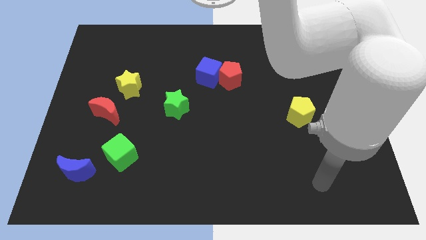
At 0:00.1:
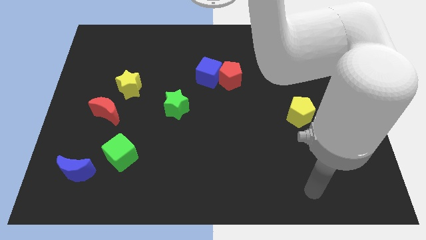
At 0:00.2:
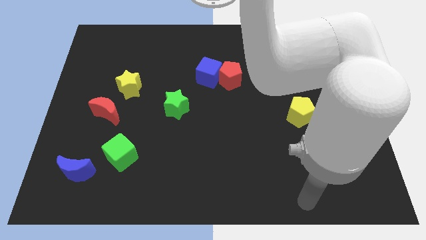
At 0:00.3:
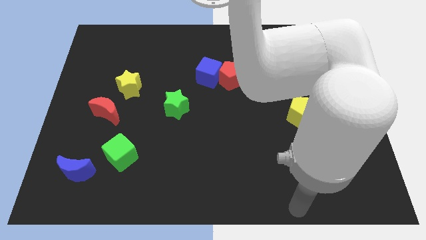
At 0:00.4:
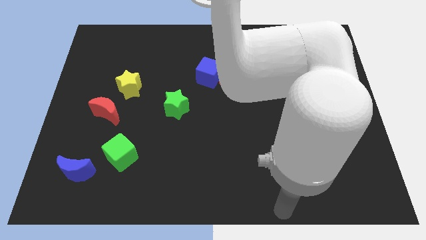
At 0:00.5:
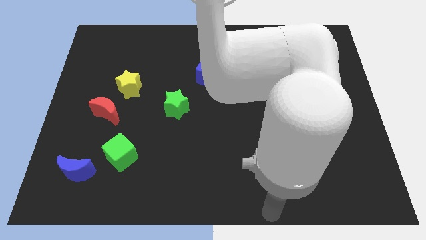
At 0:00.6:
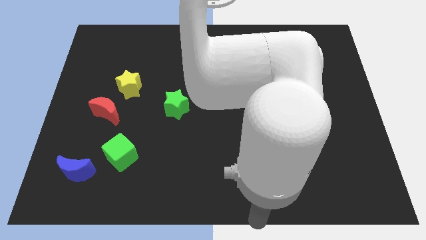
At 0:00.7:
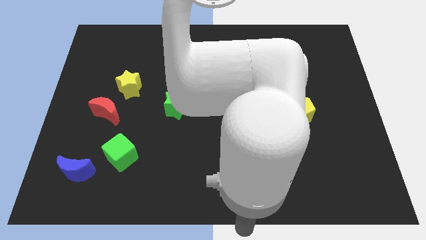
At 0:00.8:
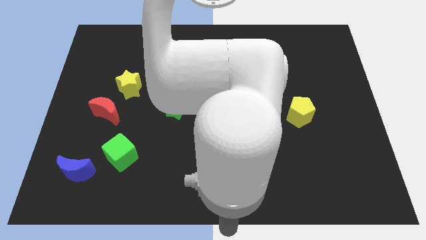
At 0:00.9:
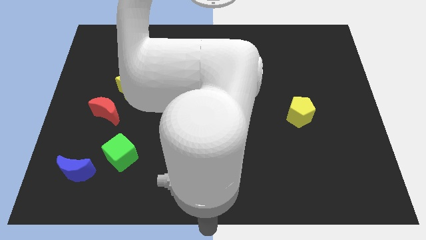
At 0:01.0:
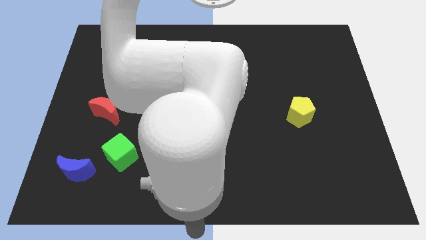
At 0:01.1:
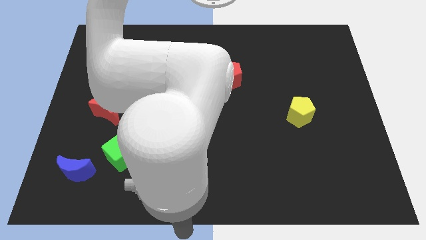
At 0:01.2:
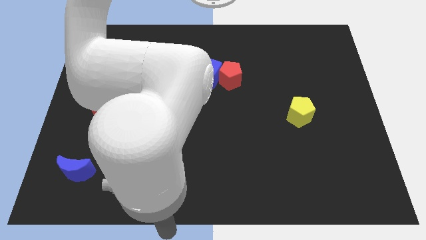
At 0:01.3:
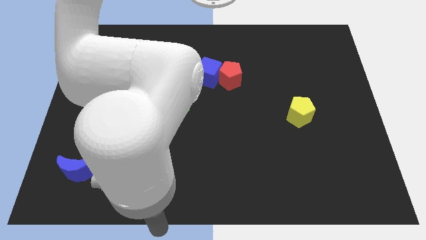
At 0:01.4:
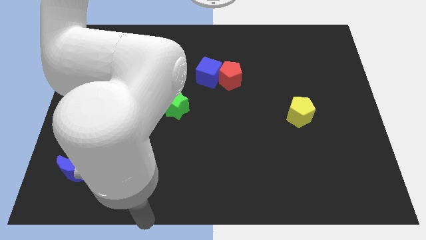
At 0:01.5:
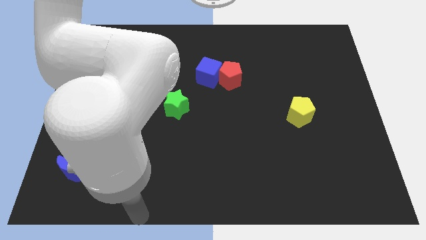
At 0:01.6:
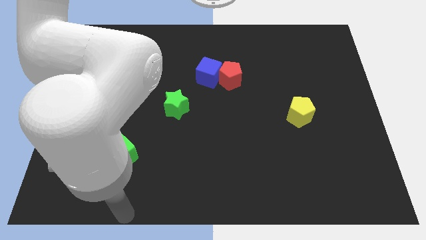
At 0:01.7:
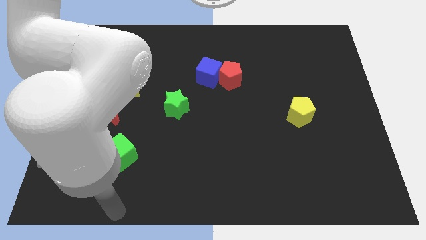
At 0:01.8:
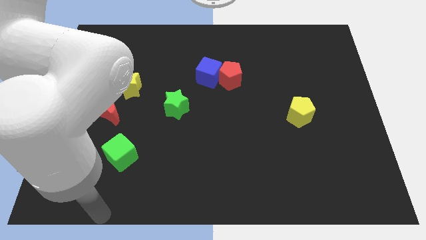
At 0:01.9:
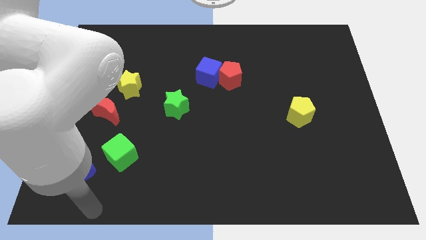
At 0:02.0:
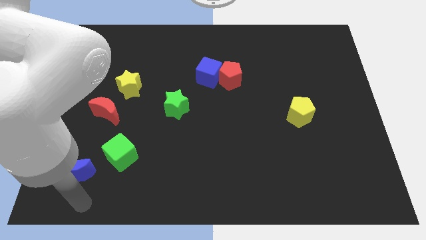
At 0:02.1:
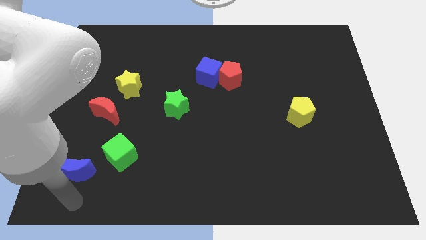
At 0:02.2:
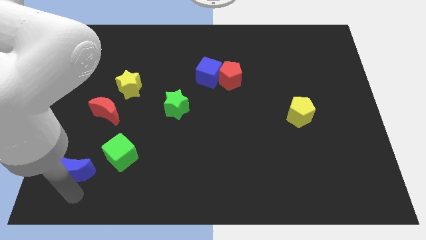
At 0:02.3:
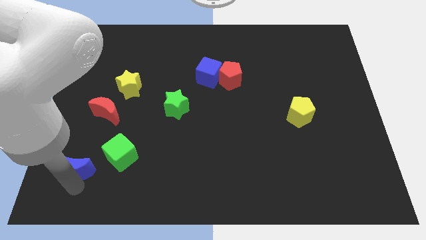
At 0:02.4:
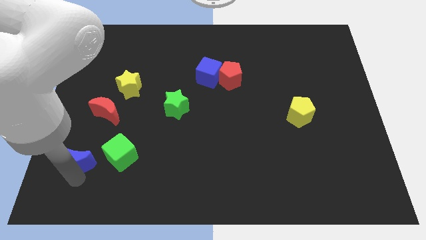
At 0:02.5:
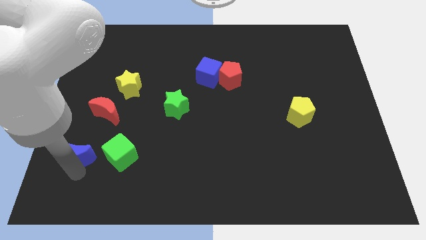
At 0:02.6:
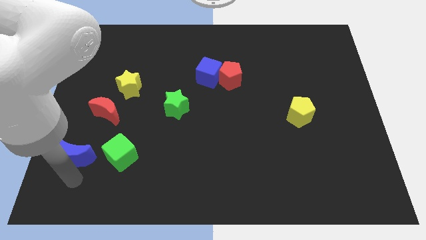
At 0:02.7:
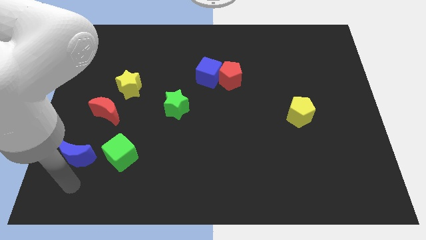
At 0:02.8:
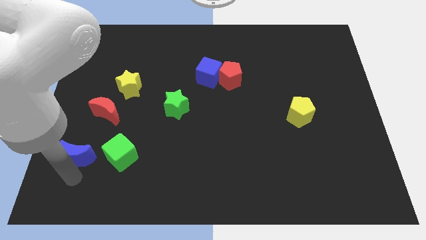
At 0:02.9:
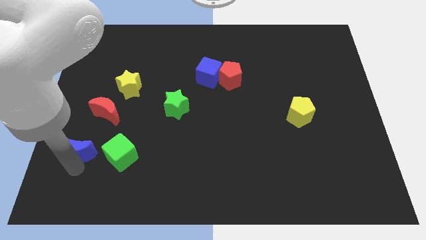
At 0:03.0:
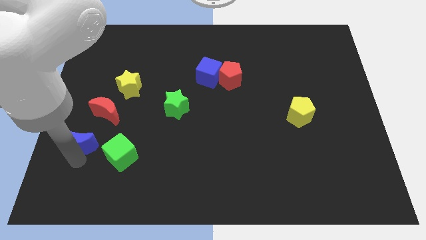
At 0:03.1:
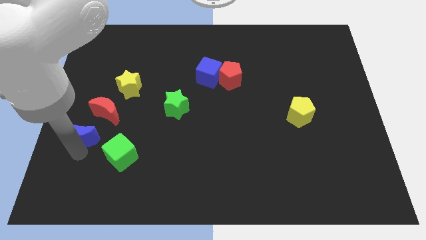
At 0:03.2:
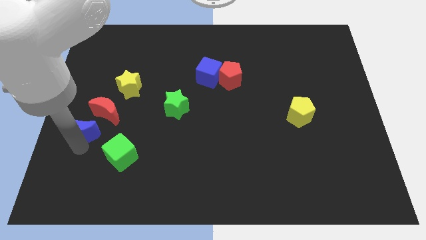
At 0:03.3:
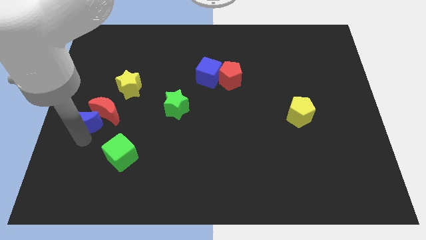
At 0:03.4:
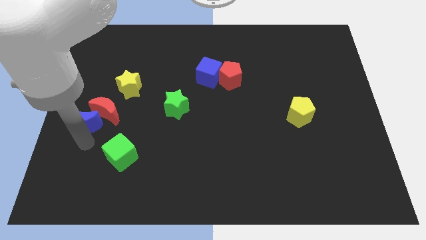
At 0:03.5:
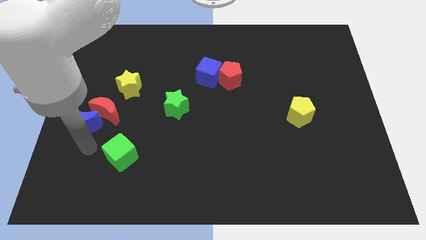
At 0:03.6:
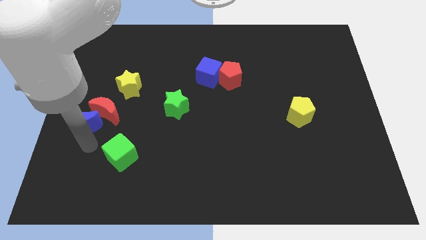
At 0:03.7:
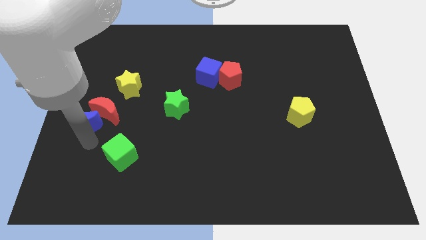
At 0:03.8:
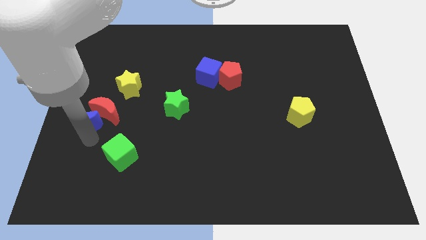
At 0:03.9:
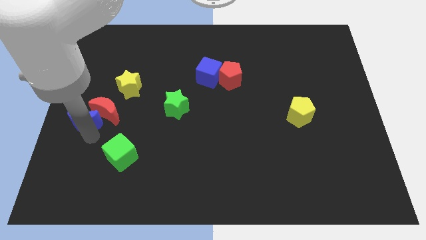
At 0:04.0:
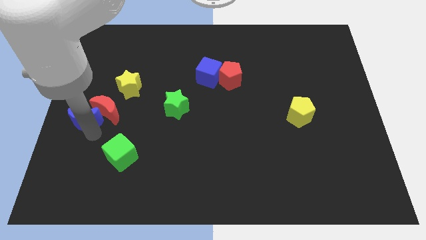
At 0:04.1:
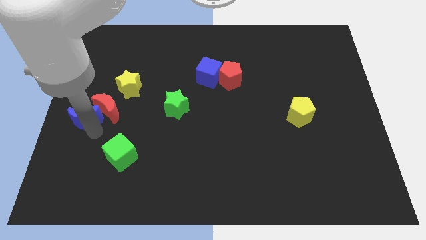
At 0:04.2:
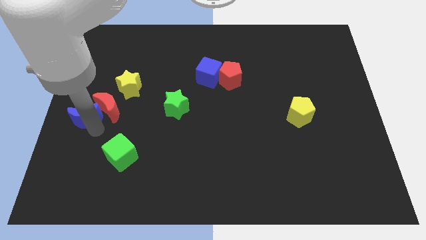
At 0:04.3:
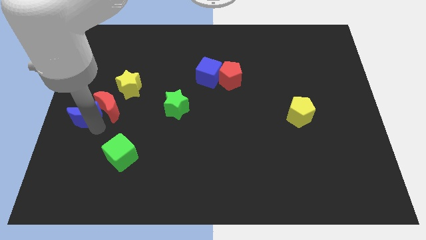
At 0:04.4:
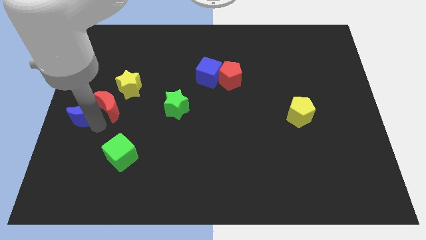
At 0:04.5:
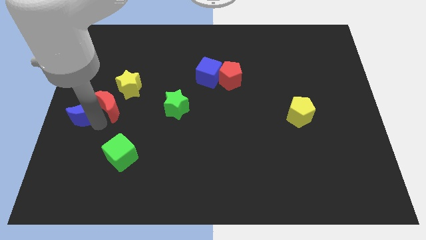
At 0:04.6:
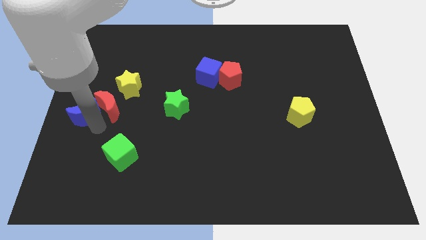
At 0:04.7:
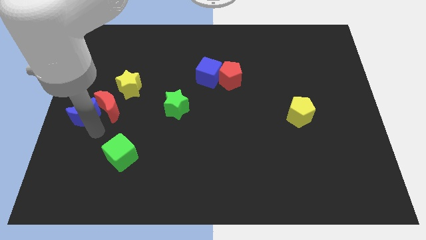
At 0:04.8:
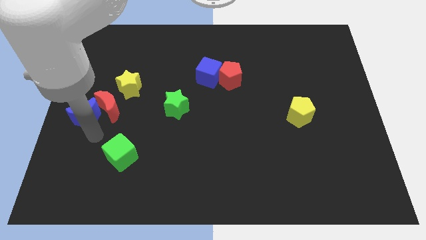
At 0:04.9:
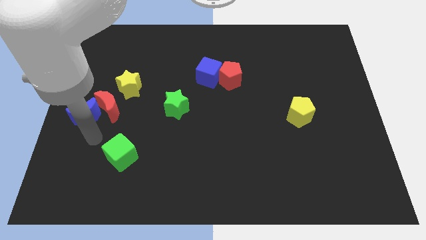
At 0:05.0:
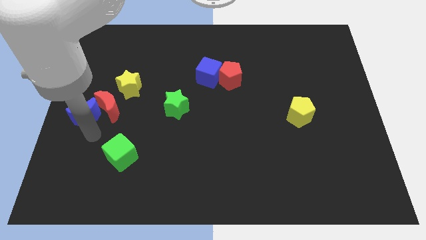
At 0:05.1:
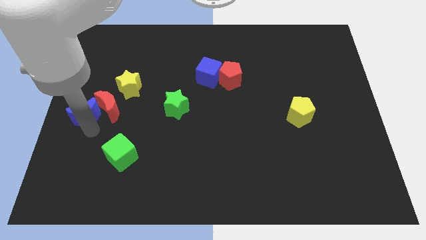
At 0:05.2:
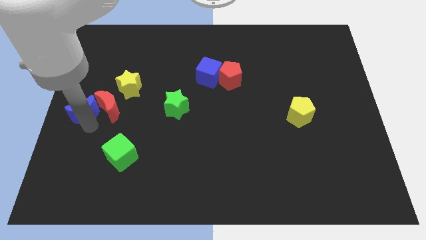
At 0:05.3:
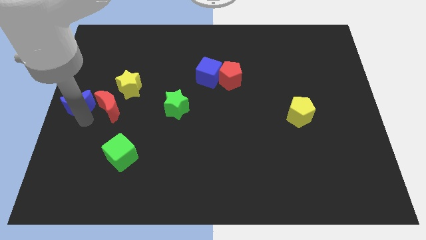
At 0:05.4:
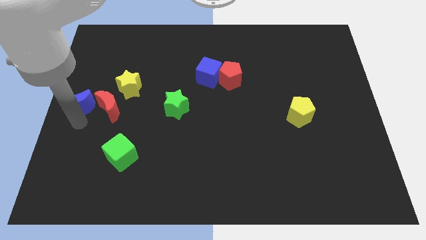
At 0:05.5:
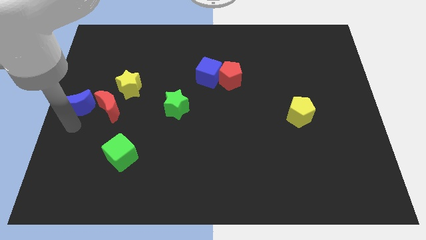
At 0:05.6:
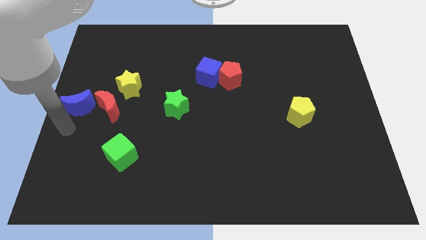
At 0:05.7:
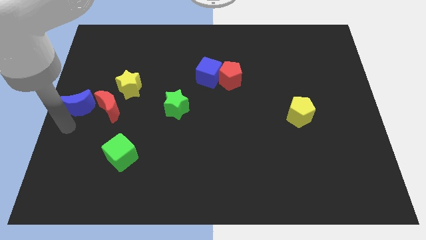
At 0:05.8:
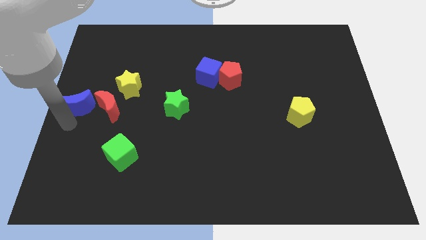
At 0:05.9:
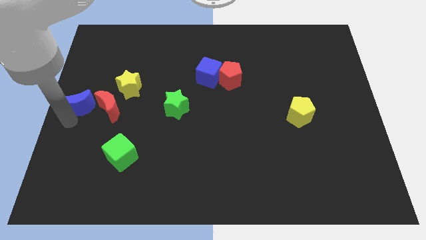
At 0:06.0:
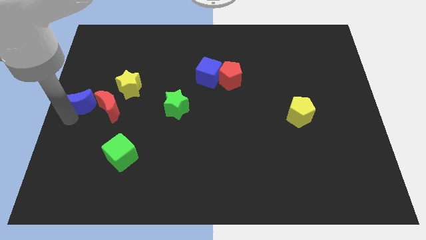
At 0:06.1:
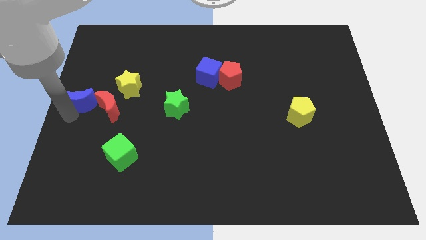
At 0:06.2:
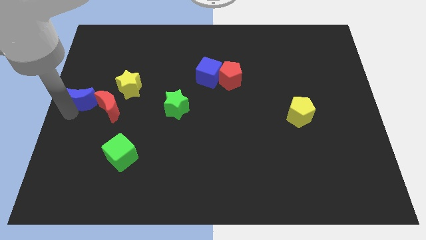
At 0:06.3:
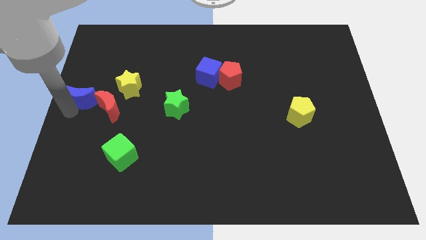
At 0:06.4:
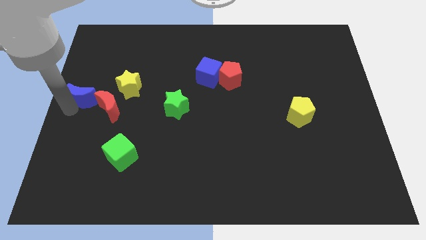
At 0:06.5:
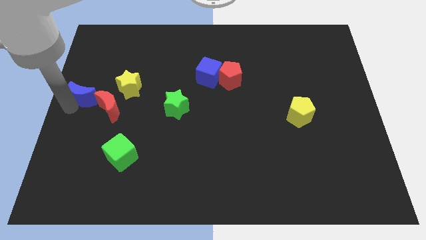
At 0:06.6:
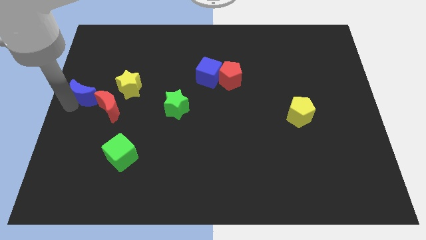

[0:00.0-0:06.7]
slide the blue moon upwards

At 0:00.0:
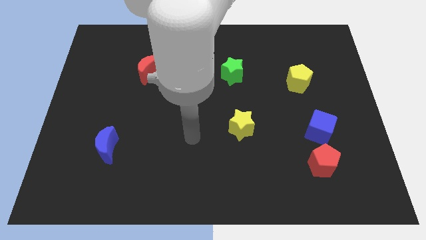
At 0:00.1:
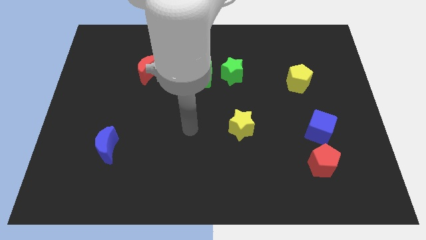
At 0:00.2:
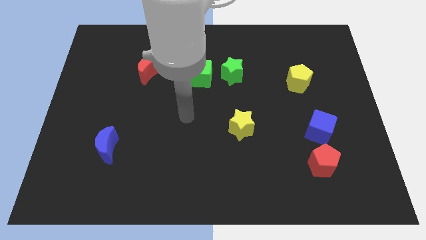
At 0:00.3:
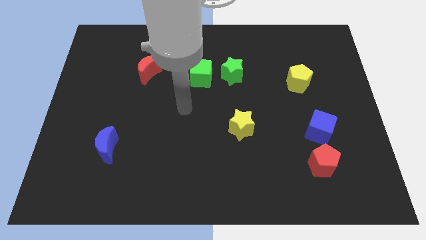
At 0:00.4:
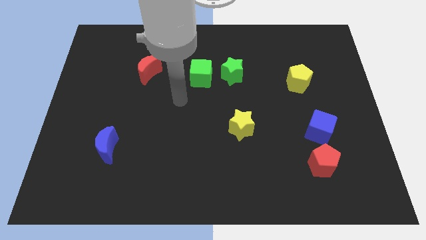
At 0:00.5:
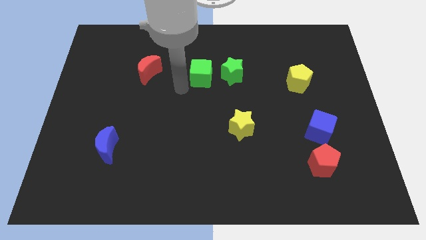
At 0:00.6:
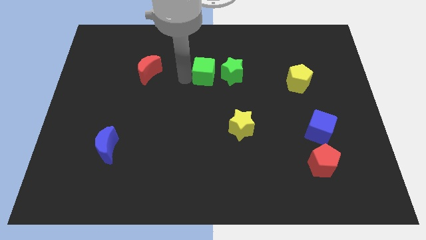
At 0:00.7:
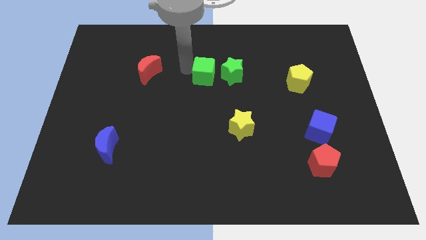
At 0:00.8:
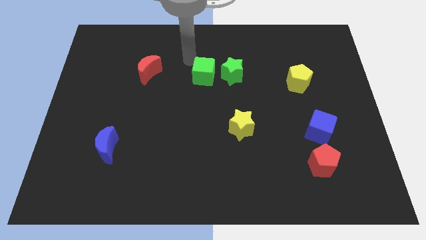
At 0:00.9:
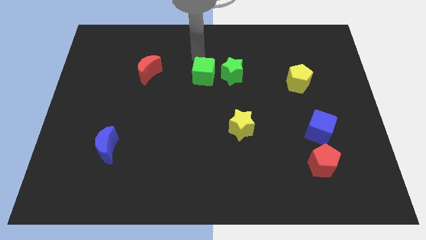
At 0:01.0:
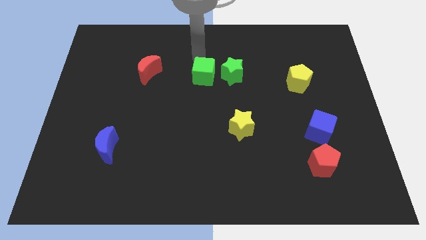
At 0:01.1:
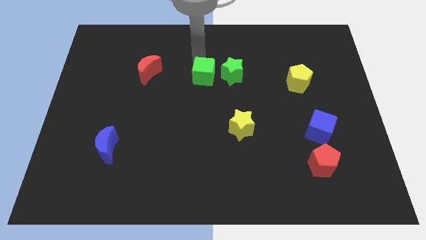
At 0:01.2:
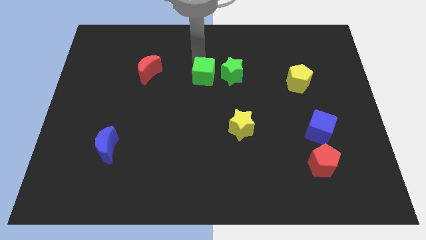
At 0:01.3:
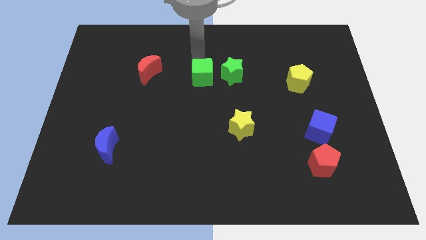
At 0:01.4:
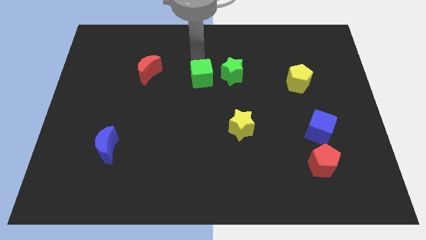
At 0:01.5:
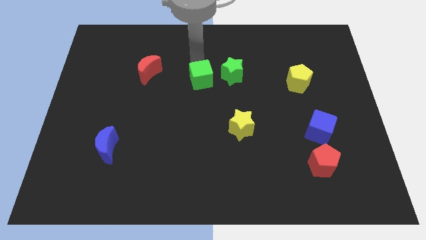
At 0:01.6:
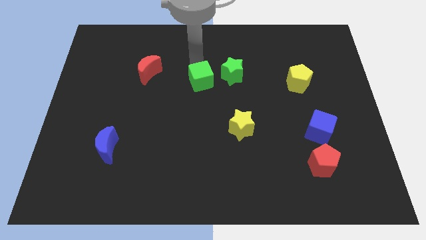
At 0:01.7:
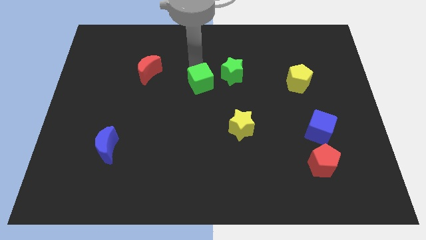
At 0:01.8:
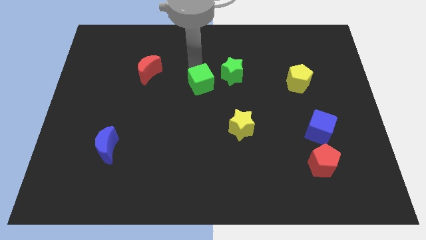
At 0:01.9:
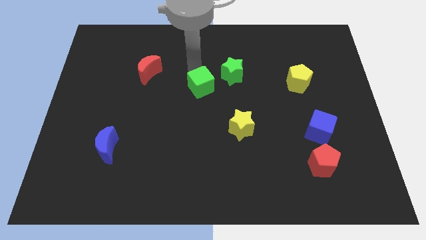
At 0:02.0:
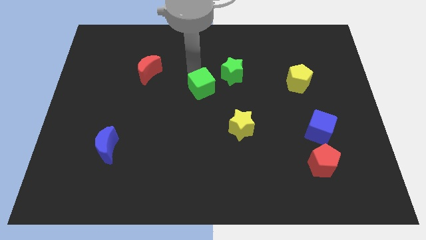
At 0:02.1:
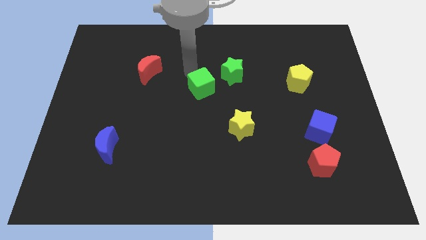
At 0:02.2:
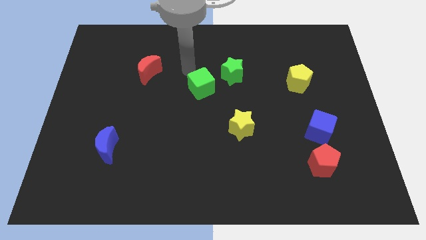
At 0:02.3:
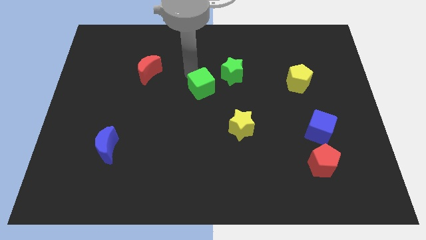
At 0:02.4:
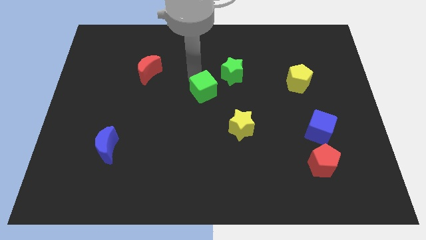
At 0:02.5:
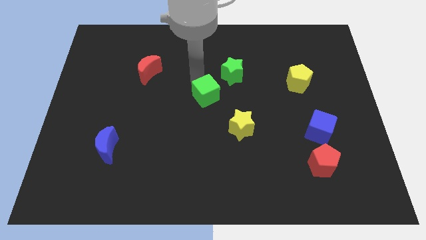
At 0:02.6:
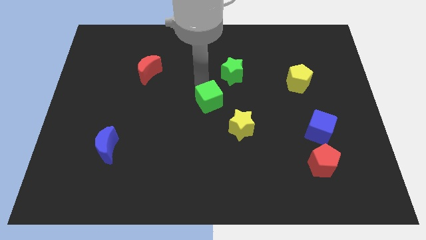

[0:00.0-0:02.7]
slightly push the green cube down
